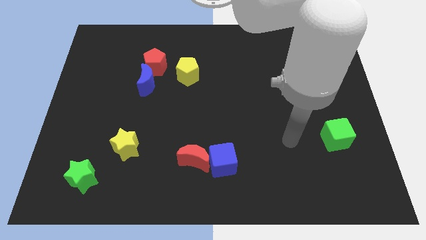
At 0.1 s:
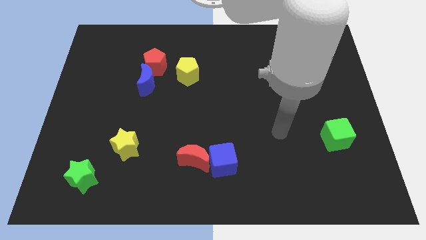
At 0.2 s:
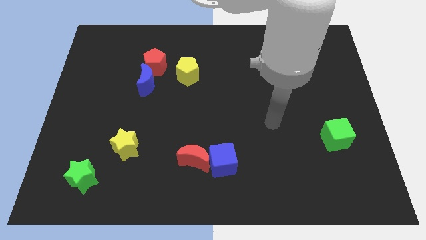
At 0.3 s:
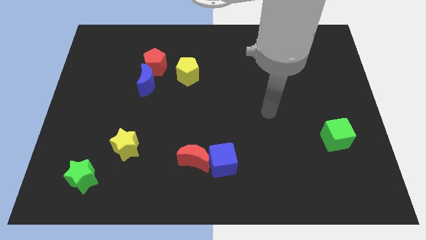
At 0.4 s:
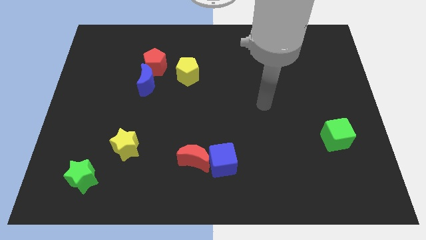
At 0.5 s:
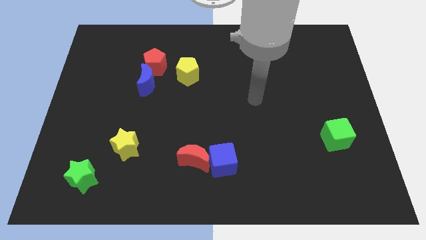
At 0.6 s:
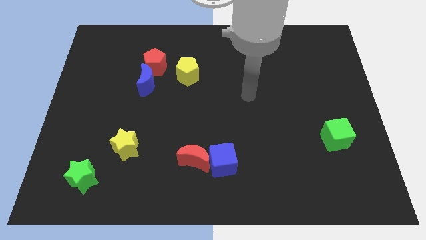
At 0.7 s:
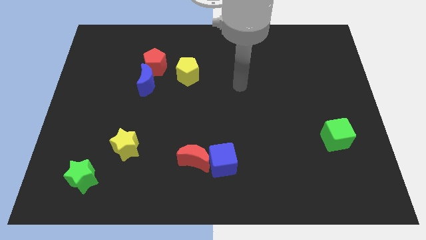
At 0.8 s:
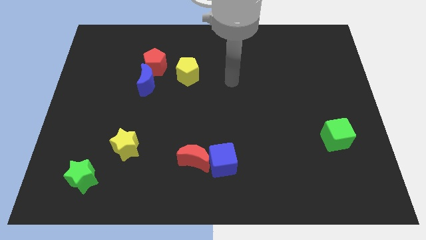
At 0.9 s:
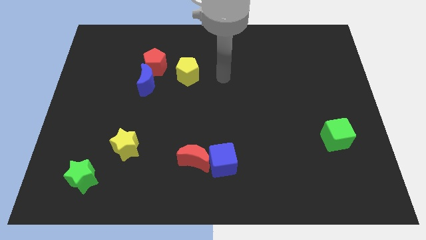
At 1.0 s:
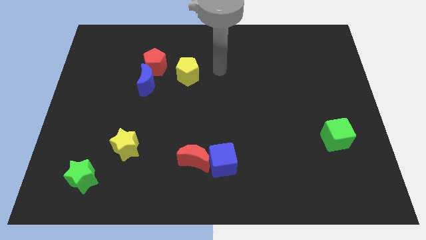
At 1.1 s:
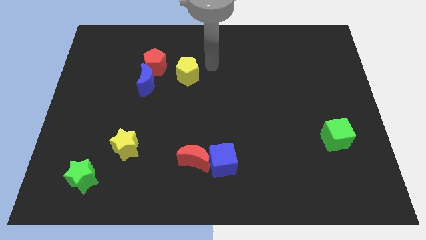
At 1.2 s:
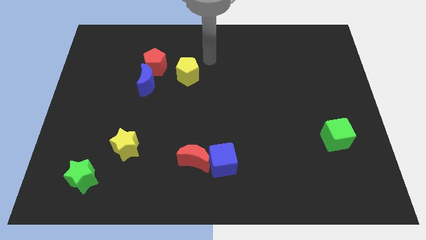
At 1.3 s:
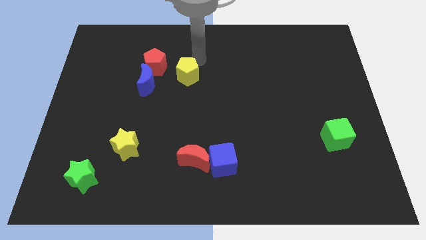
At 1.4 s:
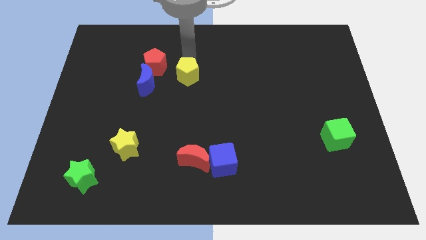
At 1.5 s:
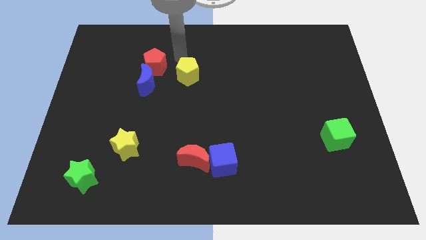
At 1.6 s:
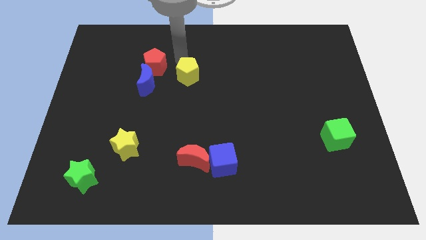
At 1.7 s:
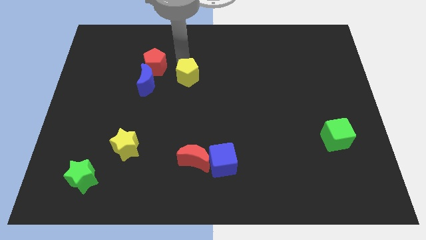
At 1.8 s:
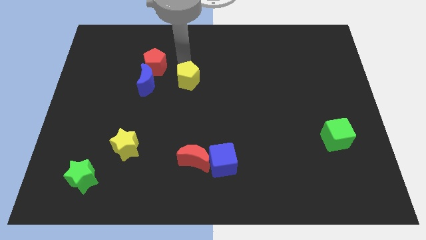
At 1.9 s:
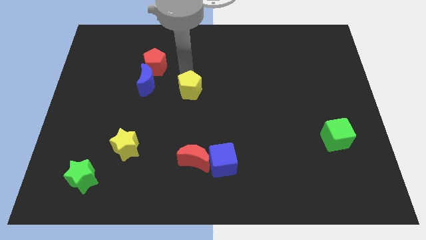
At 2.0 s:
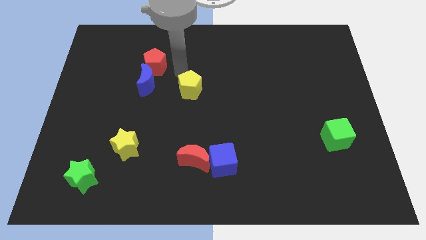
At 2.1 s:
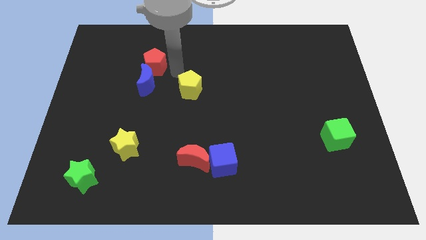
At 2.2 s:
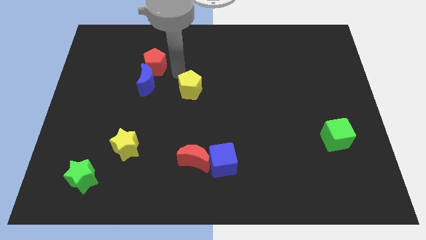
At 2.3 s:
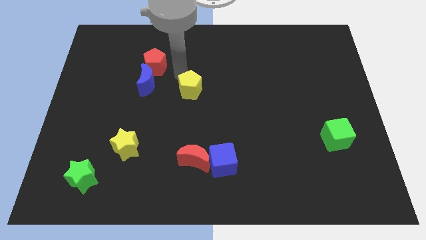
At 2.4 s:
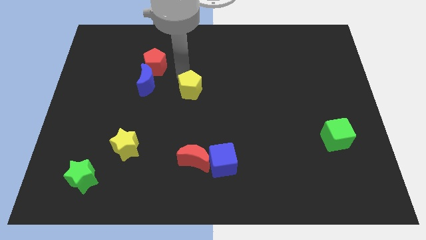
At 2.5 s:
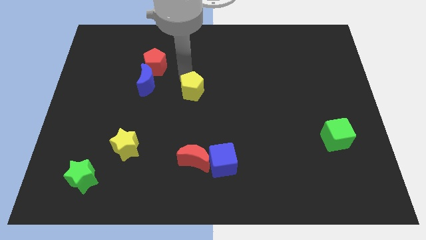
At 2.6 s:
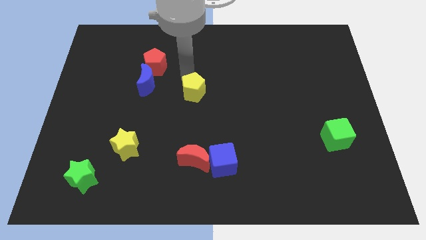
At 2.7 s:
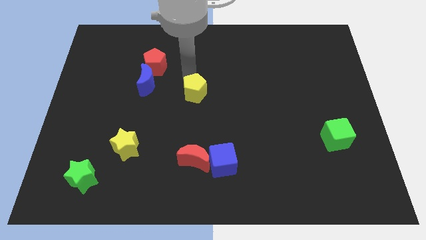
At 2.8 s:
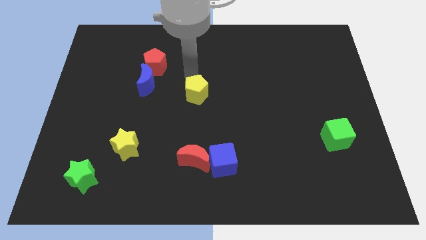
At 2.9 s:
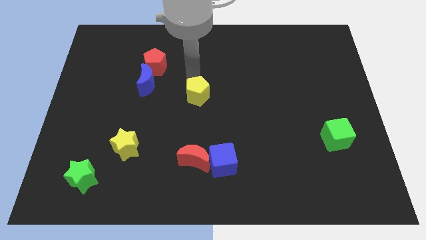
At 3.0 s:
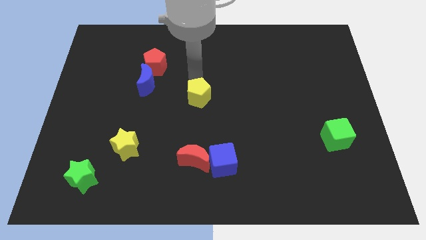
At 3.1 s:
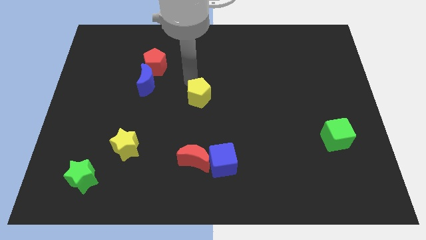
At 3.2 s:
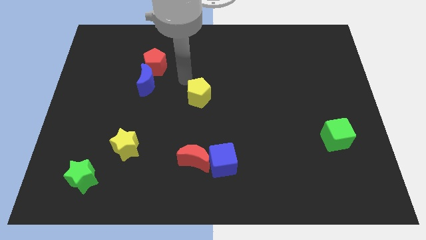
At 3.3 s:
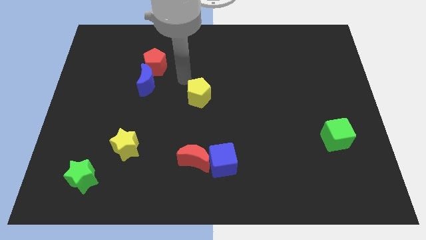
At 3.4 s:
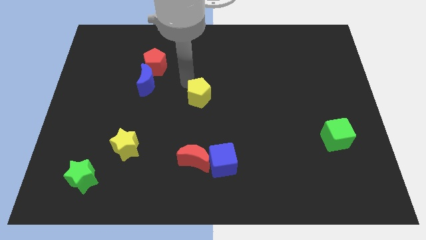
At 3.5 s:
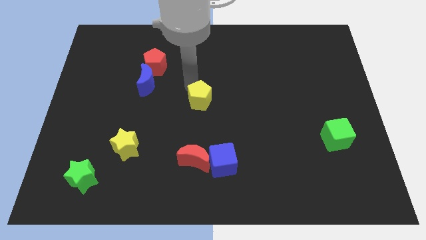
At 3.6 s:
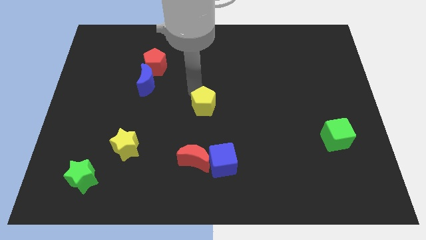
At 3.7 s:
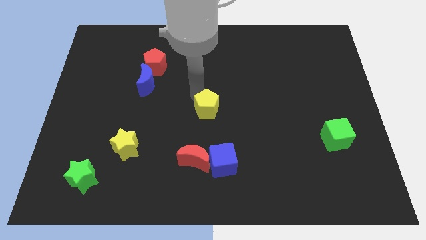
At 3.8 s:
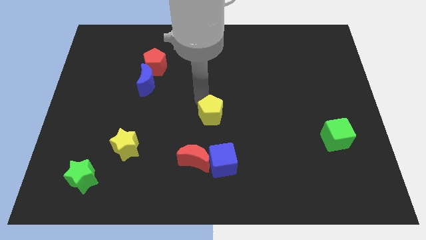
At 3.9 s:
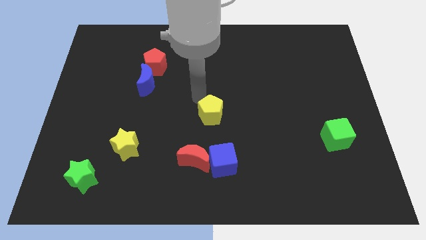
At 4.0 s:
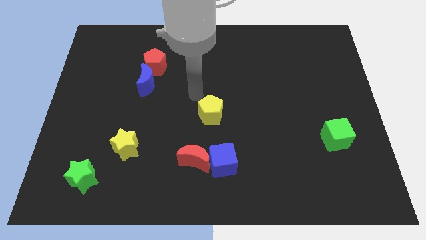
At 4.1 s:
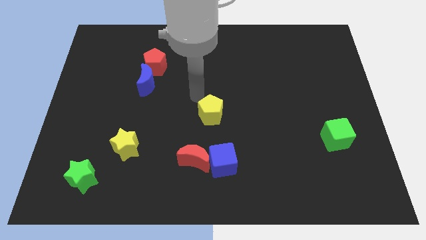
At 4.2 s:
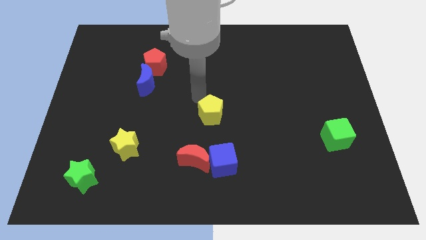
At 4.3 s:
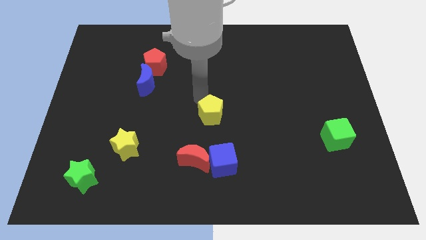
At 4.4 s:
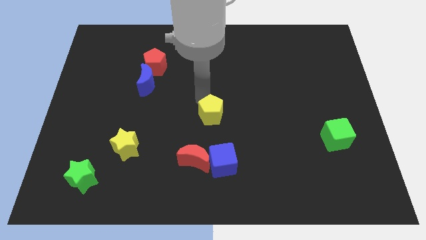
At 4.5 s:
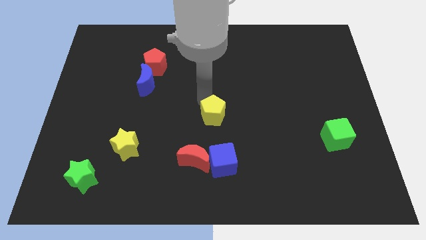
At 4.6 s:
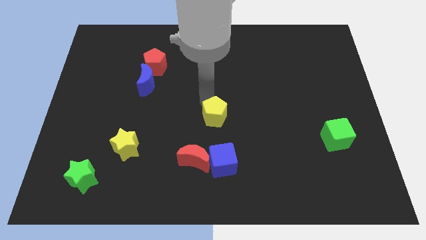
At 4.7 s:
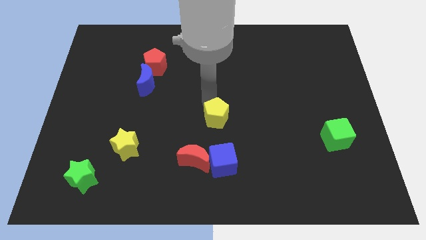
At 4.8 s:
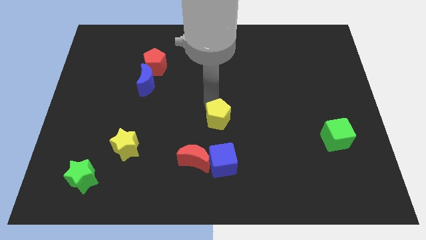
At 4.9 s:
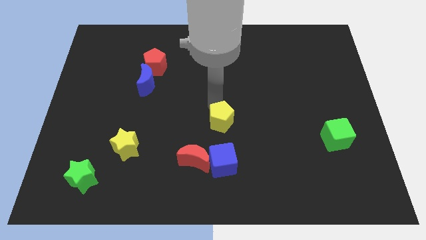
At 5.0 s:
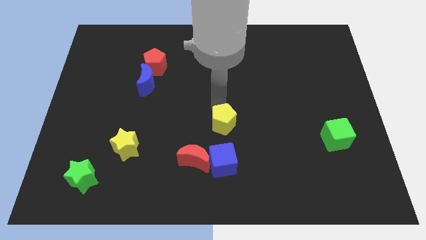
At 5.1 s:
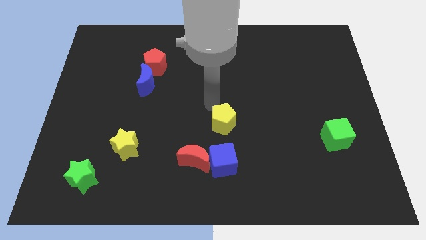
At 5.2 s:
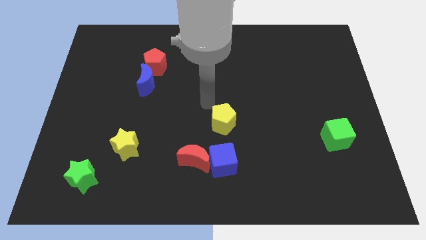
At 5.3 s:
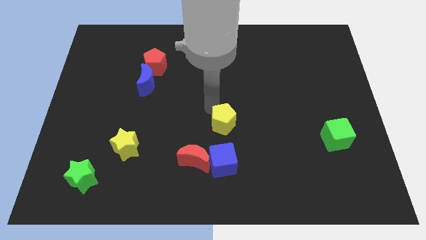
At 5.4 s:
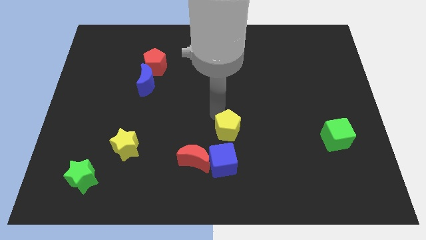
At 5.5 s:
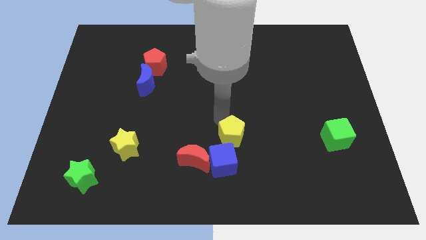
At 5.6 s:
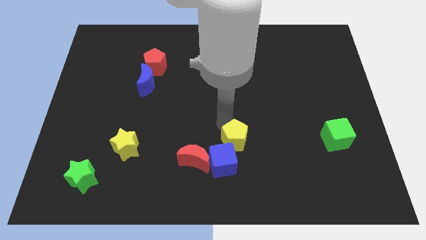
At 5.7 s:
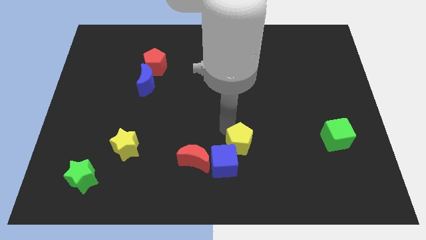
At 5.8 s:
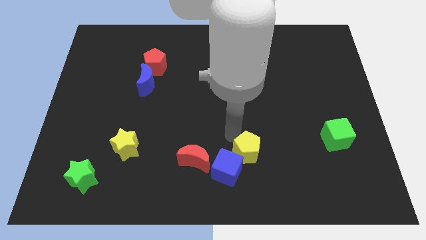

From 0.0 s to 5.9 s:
slide the yellow pentagon right of the blue cube

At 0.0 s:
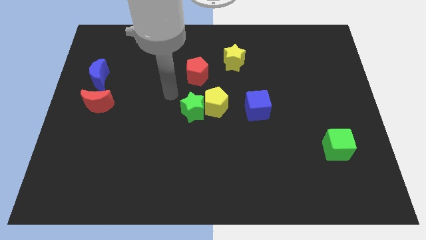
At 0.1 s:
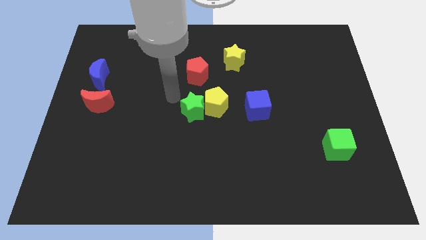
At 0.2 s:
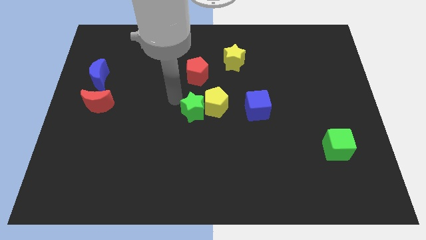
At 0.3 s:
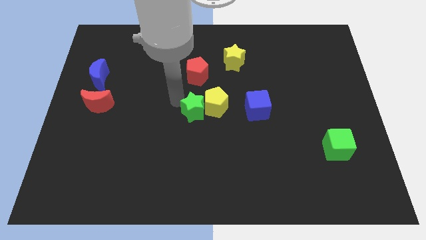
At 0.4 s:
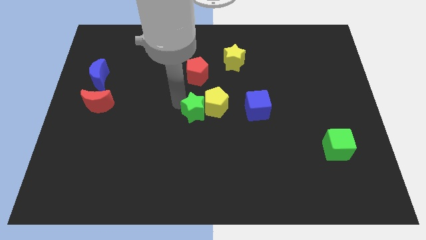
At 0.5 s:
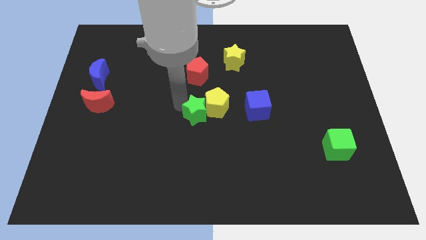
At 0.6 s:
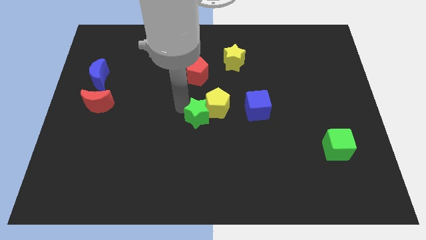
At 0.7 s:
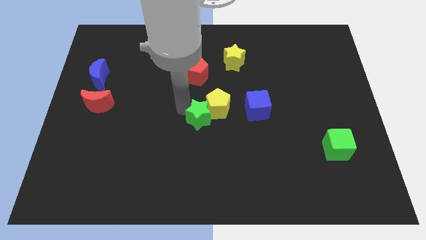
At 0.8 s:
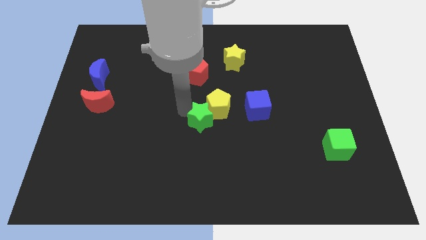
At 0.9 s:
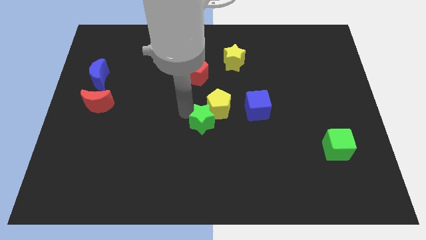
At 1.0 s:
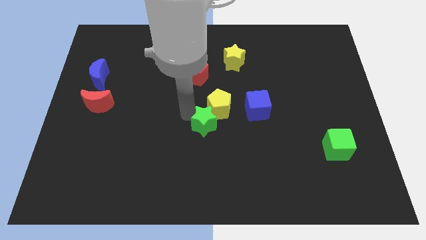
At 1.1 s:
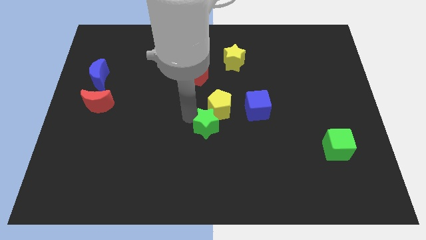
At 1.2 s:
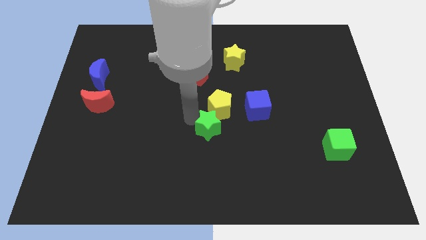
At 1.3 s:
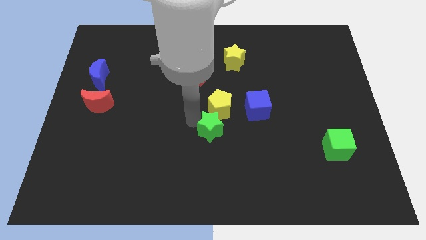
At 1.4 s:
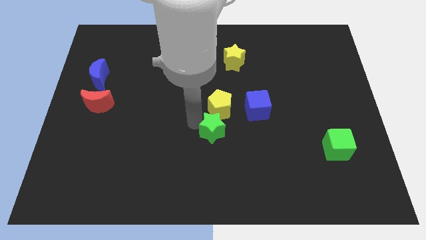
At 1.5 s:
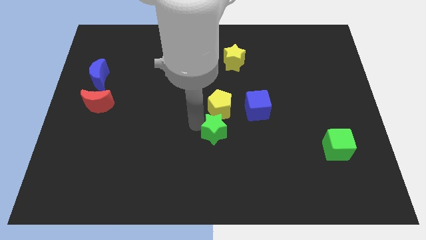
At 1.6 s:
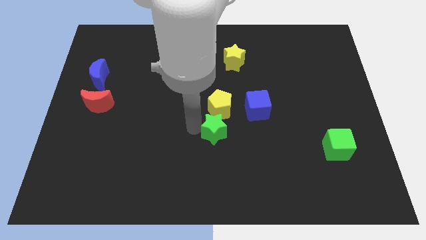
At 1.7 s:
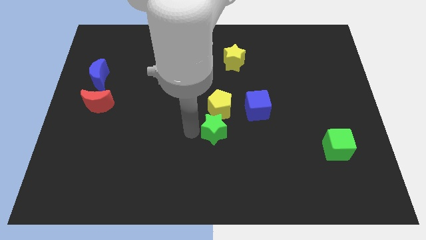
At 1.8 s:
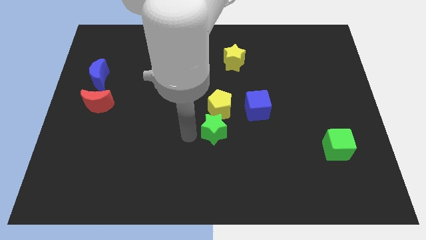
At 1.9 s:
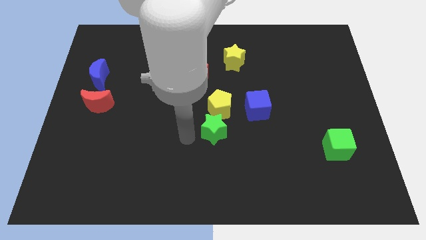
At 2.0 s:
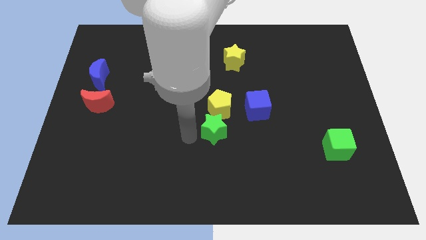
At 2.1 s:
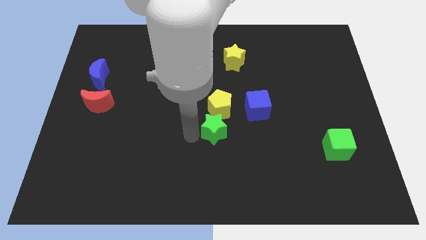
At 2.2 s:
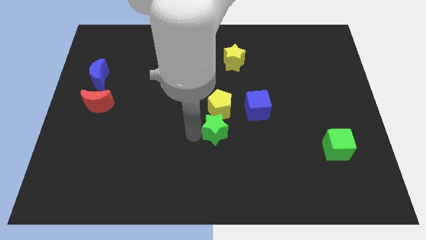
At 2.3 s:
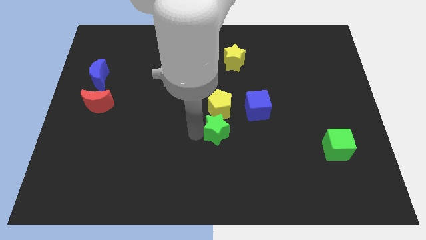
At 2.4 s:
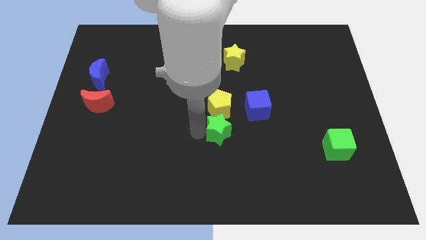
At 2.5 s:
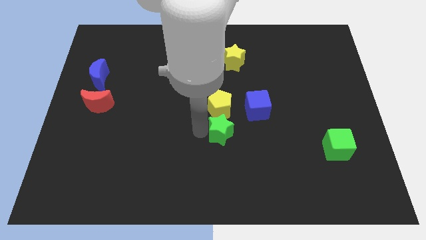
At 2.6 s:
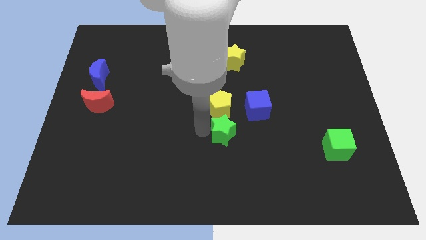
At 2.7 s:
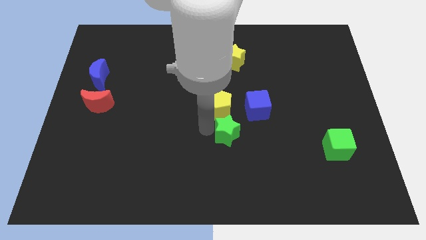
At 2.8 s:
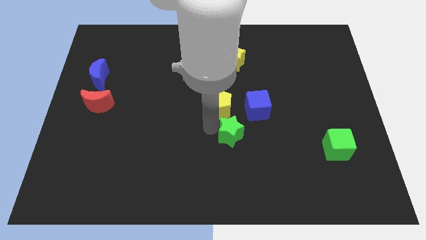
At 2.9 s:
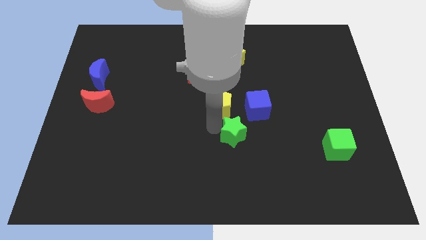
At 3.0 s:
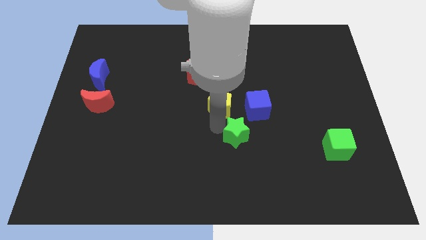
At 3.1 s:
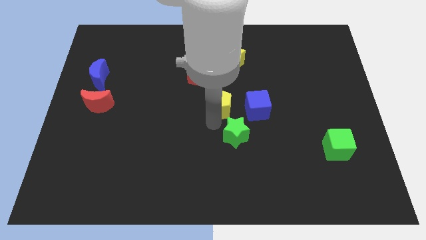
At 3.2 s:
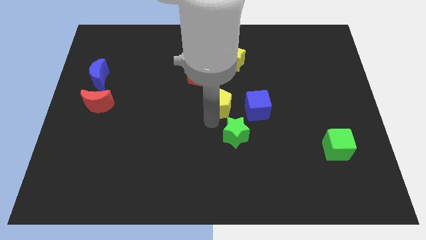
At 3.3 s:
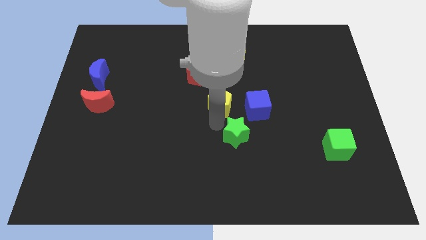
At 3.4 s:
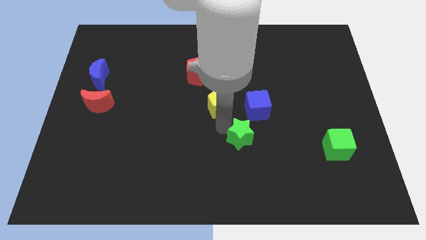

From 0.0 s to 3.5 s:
push the green star to the bottom side of the blue cube
